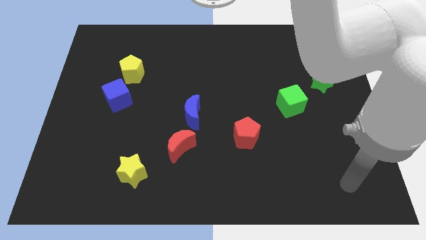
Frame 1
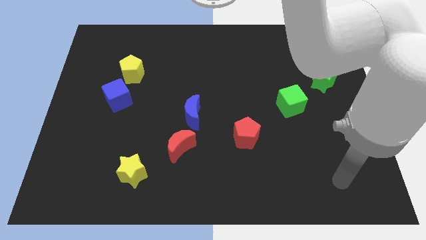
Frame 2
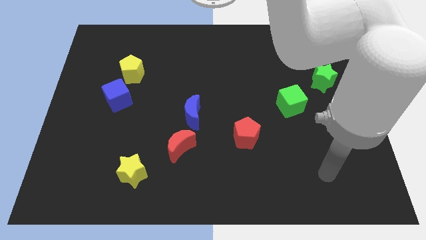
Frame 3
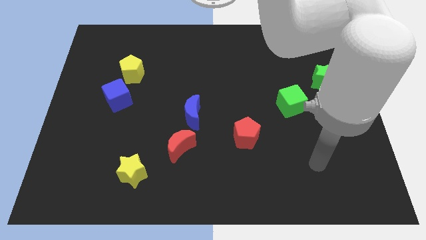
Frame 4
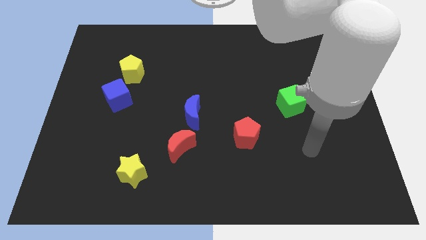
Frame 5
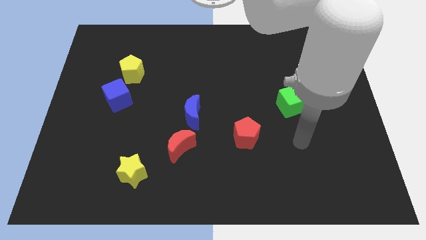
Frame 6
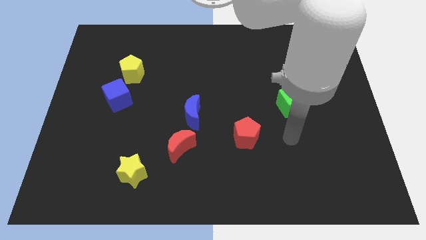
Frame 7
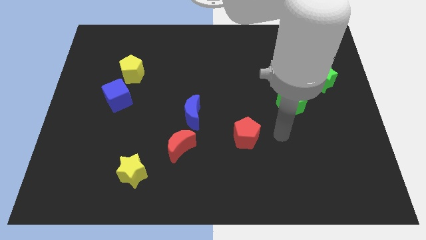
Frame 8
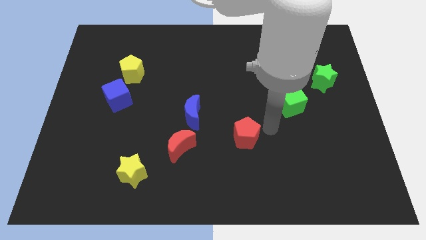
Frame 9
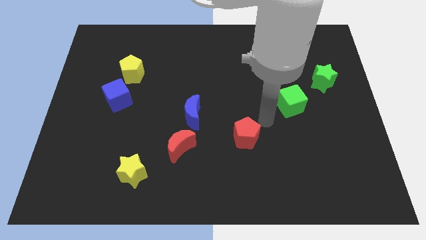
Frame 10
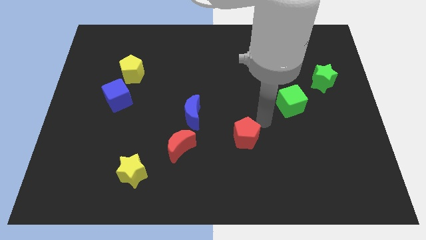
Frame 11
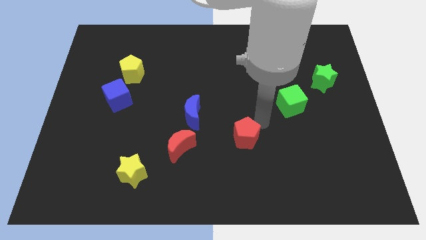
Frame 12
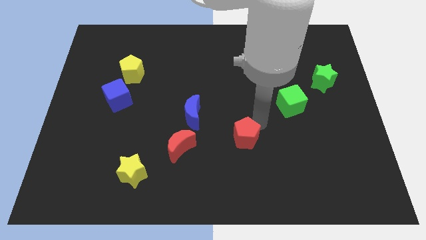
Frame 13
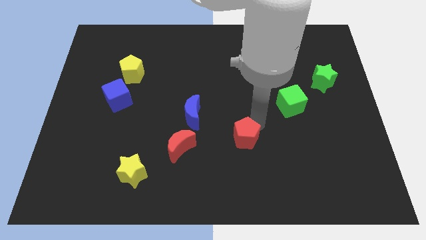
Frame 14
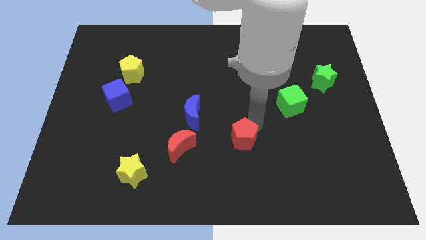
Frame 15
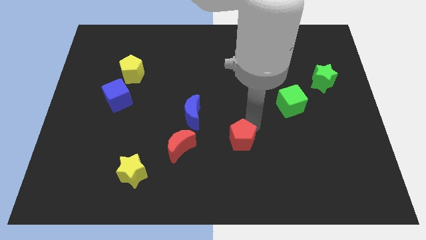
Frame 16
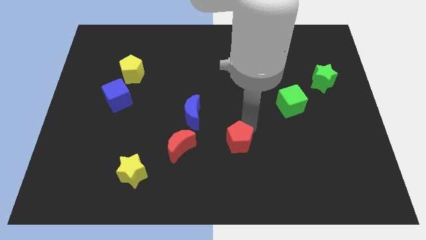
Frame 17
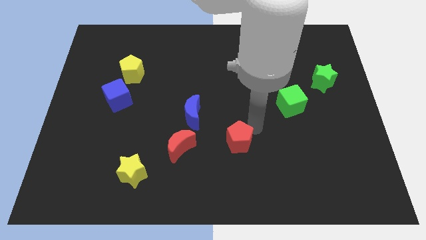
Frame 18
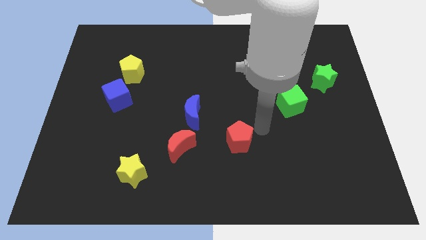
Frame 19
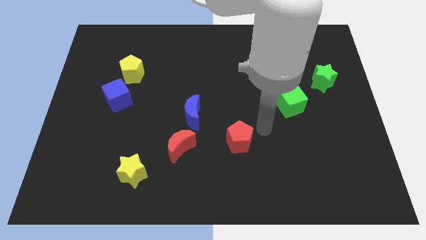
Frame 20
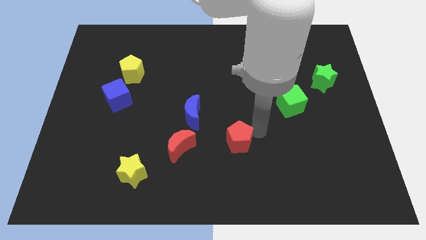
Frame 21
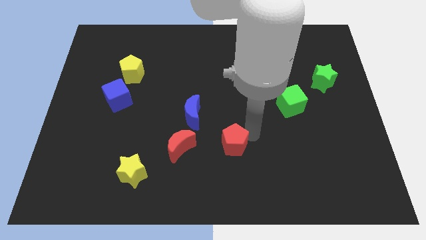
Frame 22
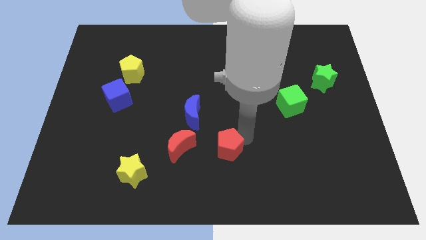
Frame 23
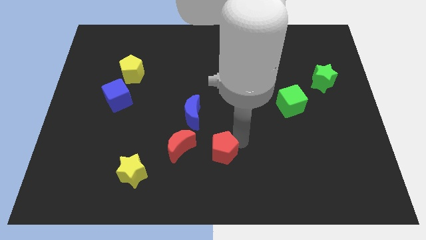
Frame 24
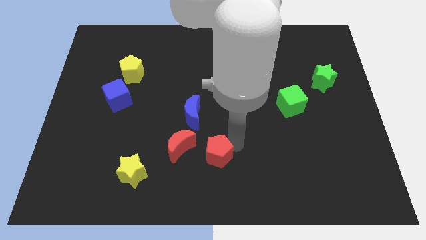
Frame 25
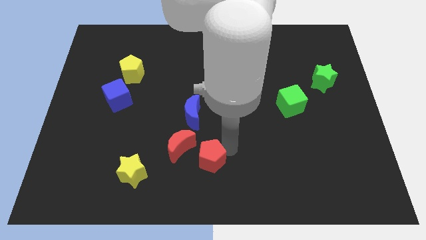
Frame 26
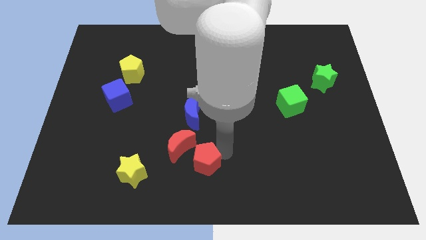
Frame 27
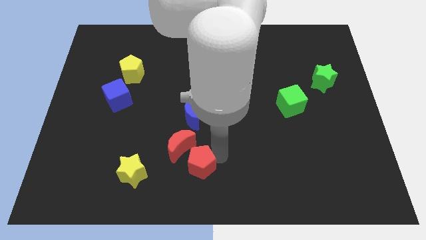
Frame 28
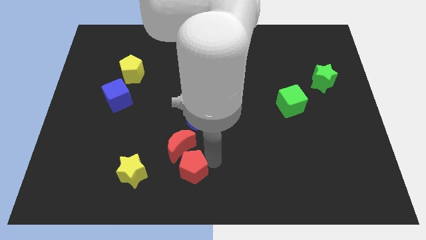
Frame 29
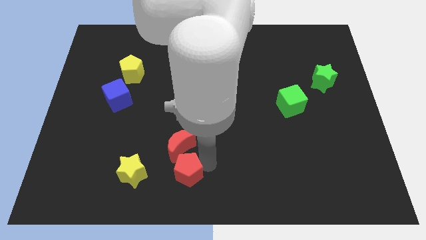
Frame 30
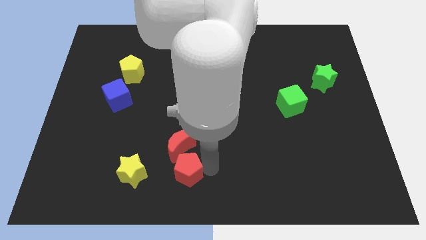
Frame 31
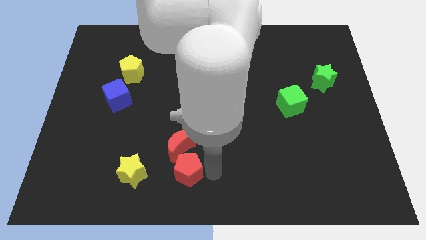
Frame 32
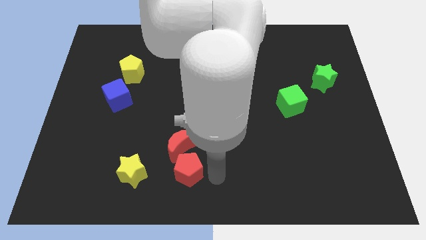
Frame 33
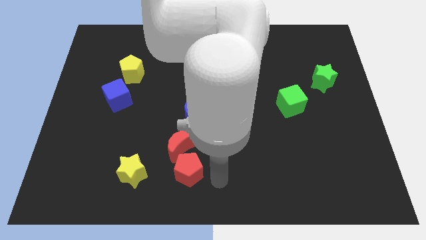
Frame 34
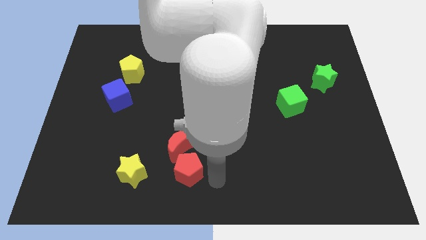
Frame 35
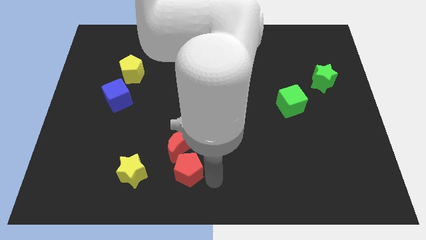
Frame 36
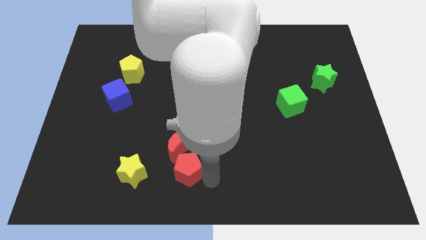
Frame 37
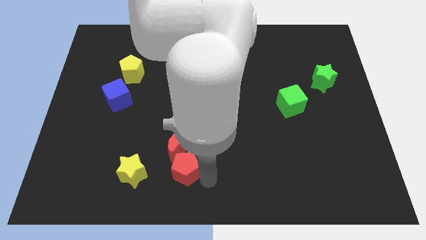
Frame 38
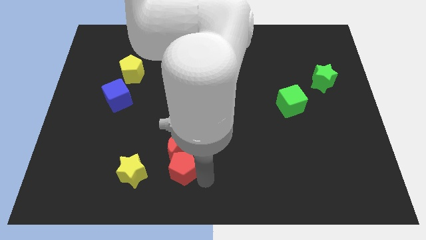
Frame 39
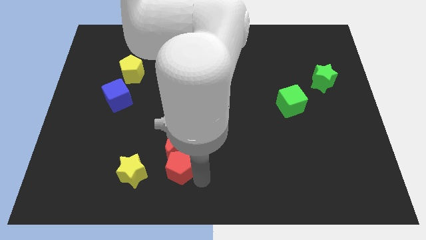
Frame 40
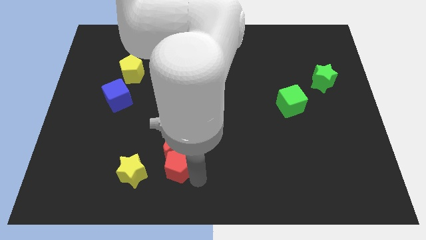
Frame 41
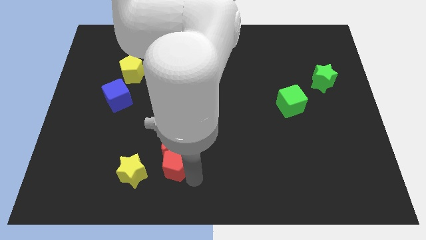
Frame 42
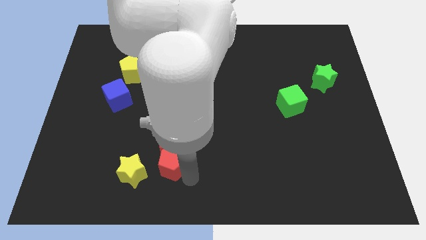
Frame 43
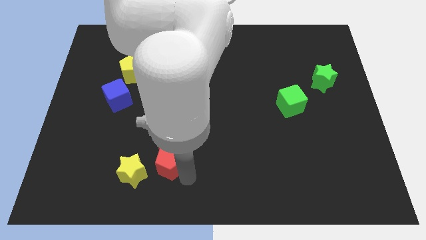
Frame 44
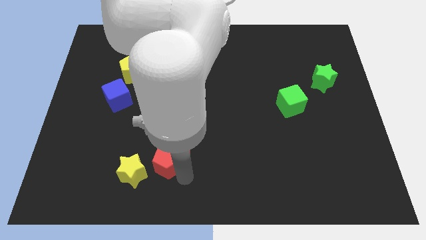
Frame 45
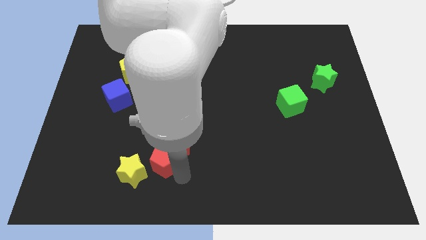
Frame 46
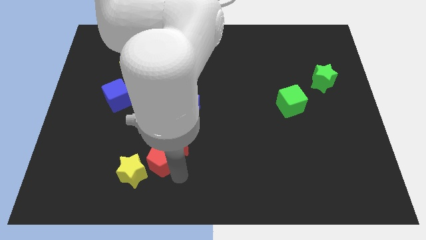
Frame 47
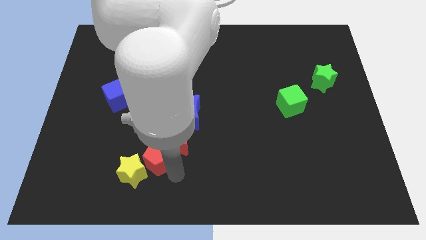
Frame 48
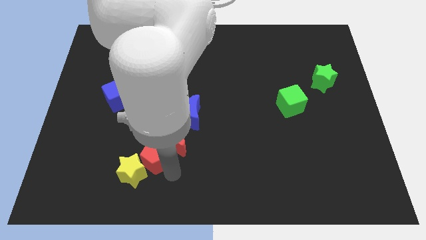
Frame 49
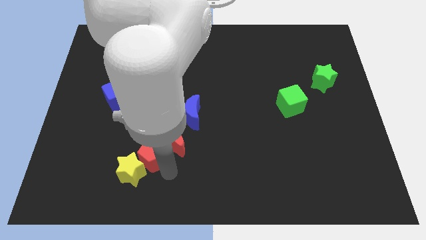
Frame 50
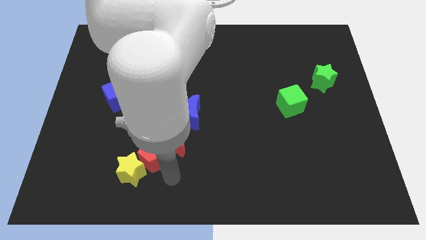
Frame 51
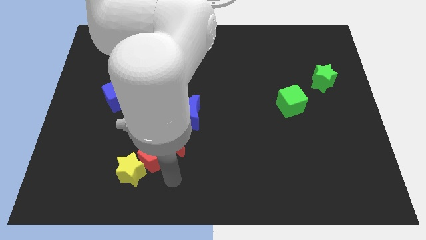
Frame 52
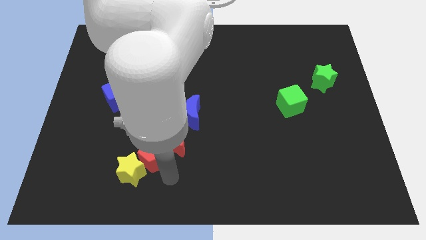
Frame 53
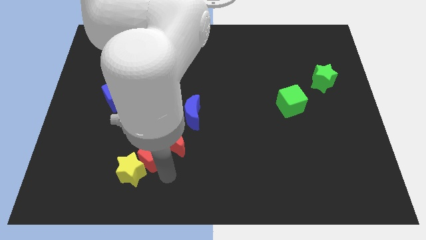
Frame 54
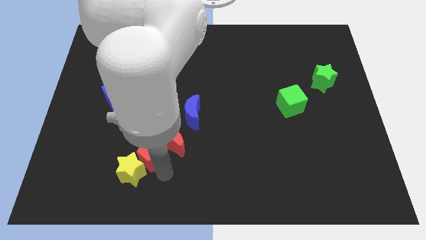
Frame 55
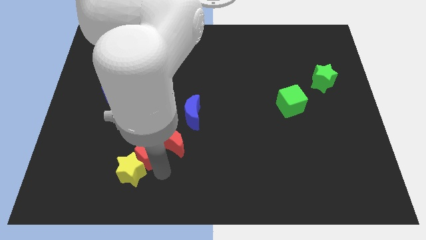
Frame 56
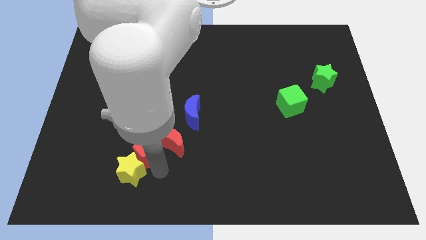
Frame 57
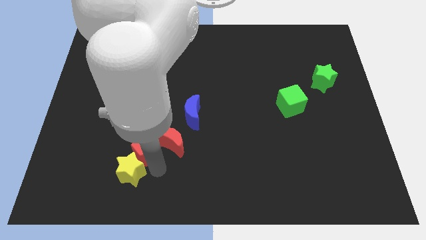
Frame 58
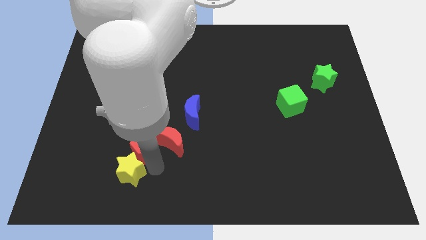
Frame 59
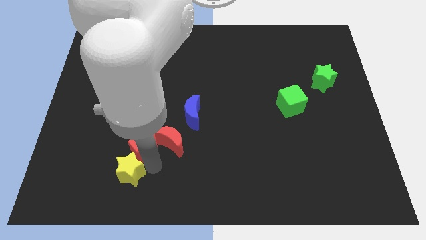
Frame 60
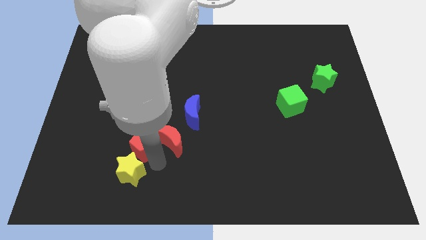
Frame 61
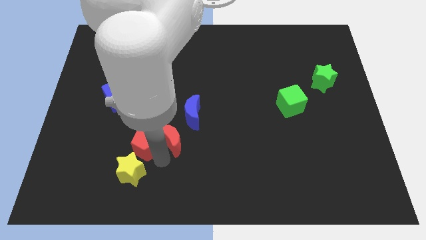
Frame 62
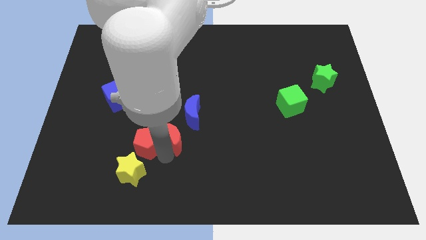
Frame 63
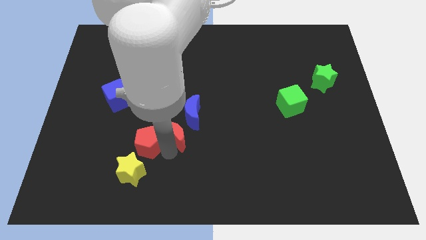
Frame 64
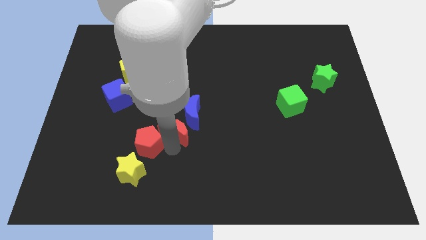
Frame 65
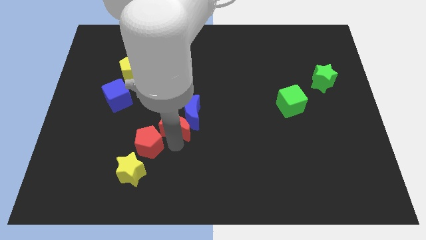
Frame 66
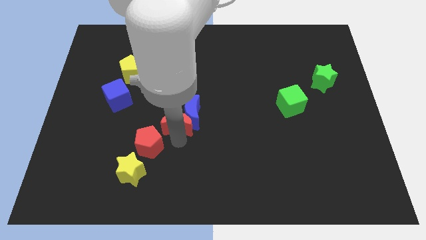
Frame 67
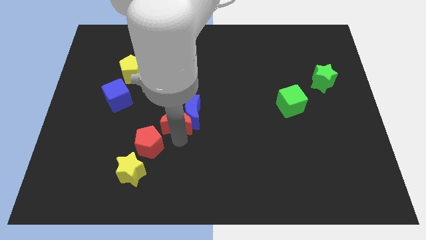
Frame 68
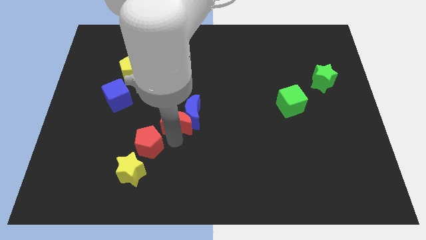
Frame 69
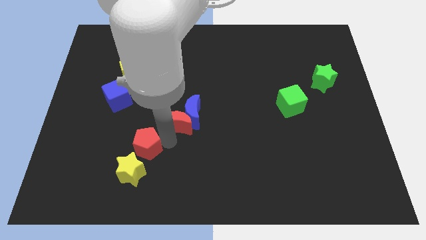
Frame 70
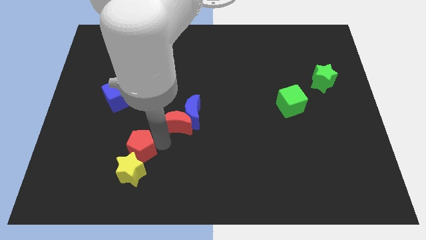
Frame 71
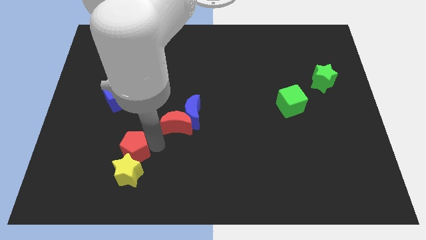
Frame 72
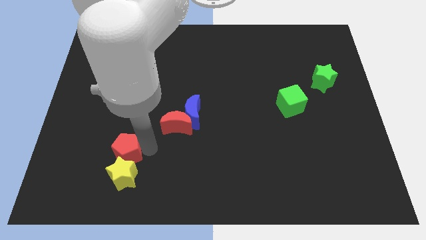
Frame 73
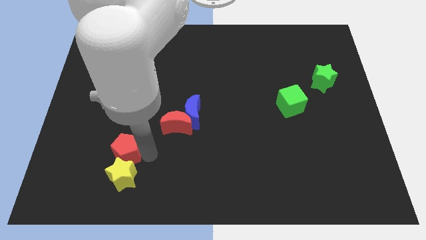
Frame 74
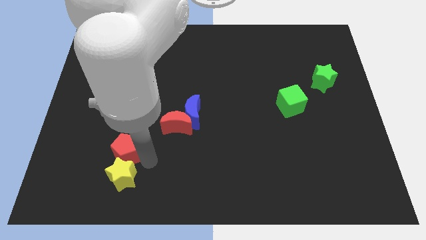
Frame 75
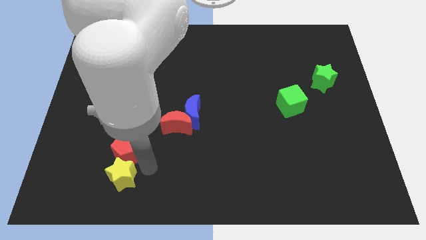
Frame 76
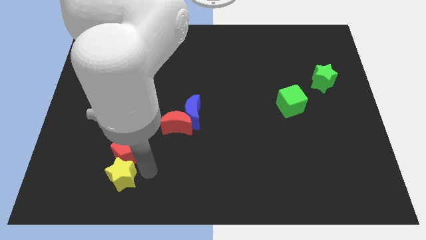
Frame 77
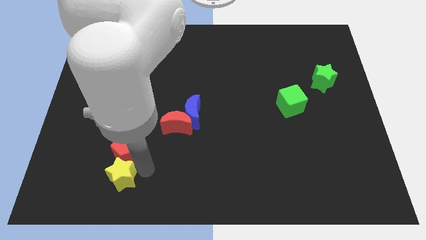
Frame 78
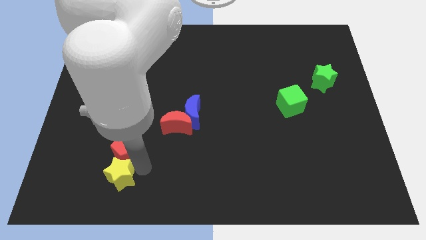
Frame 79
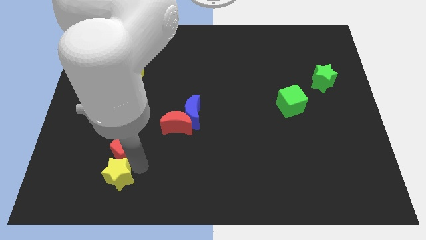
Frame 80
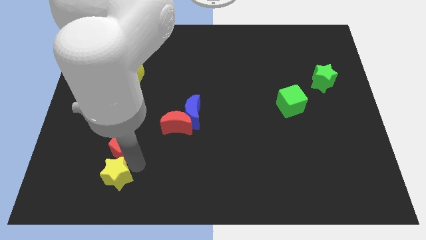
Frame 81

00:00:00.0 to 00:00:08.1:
put the red pentagon below the blue cube
